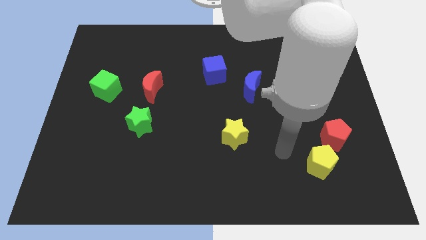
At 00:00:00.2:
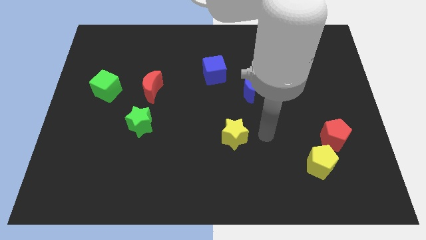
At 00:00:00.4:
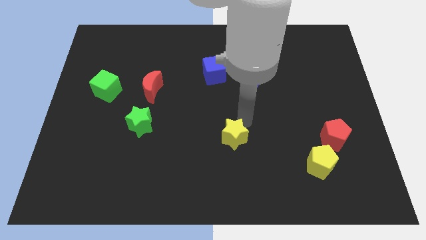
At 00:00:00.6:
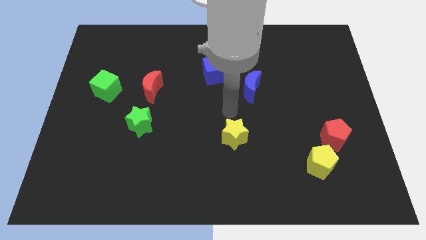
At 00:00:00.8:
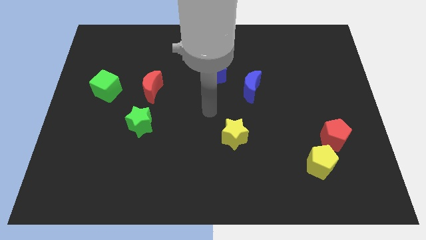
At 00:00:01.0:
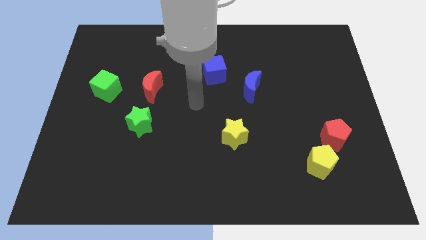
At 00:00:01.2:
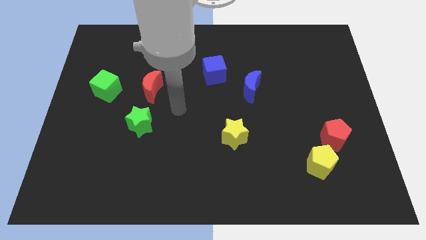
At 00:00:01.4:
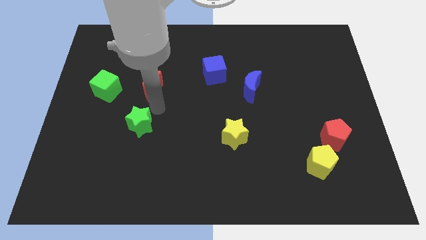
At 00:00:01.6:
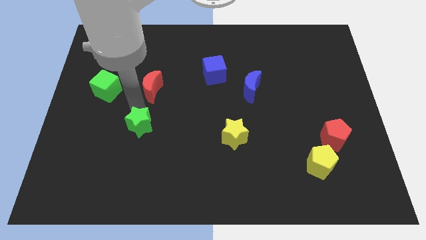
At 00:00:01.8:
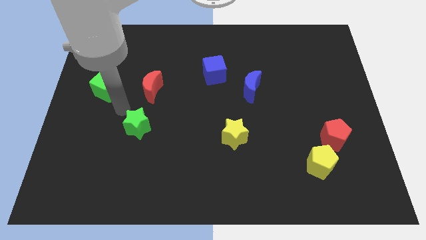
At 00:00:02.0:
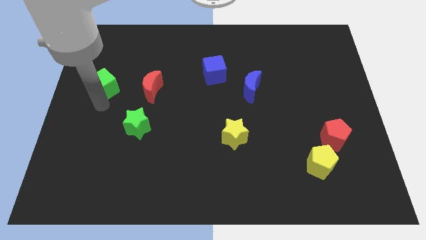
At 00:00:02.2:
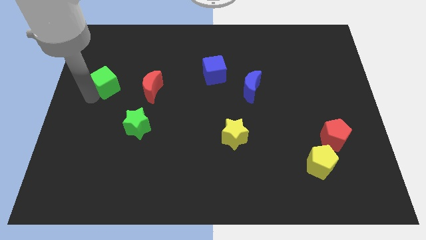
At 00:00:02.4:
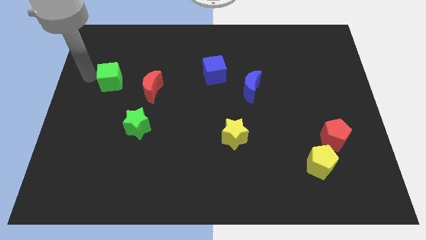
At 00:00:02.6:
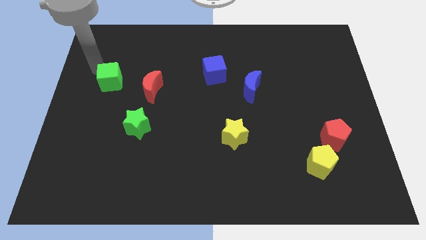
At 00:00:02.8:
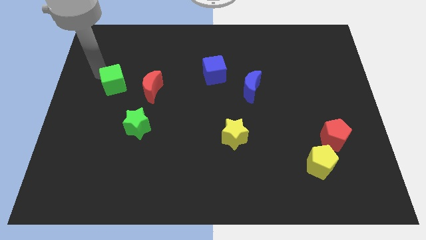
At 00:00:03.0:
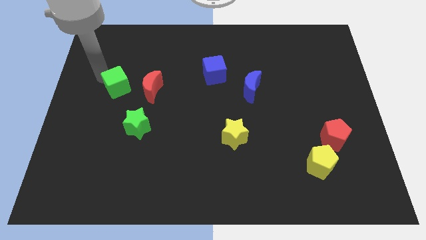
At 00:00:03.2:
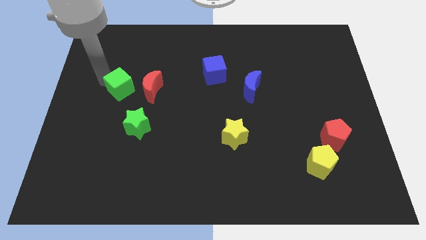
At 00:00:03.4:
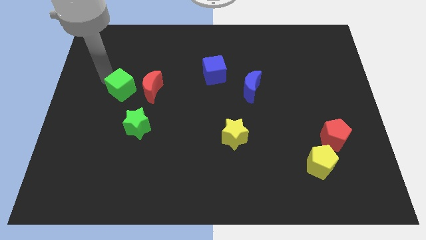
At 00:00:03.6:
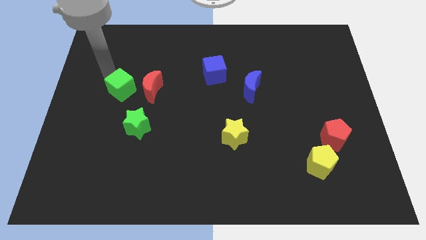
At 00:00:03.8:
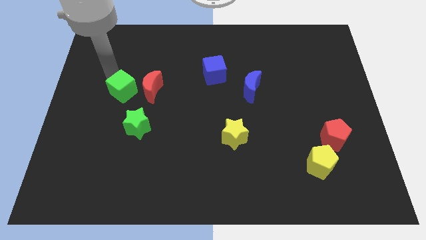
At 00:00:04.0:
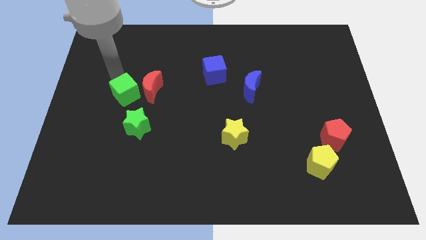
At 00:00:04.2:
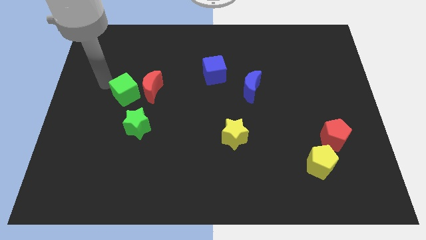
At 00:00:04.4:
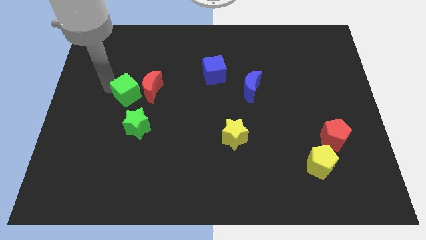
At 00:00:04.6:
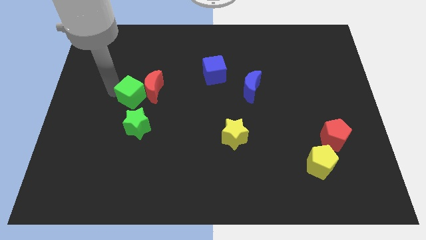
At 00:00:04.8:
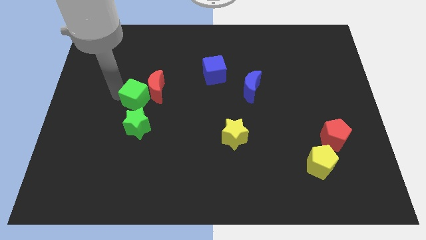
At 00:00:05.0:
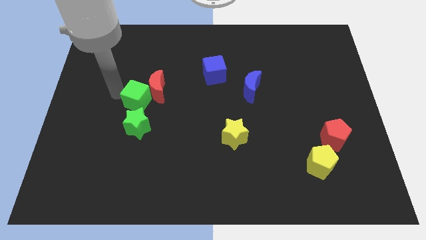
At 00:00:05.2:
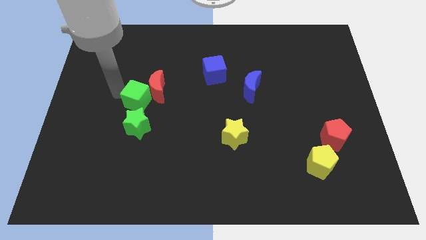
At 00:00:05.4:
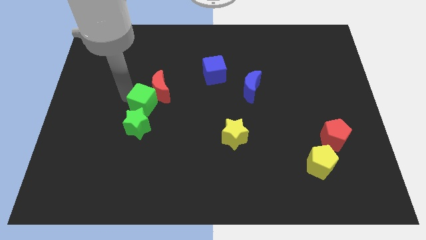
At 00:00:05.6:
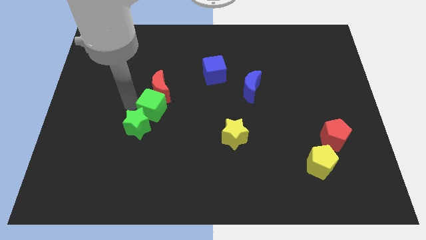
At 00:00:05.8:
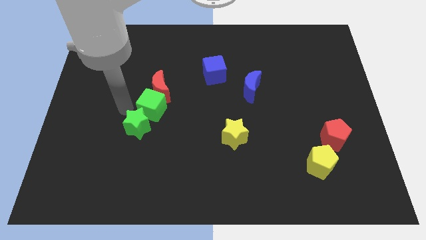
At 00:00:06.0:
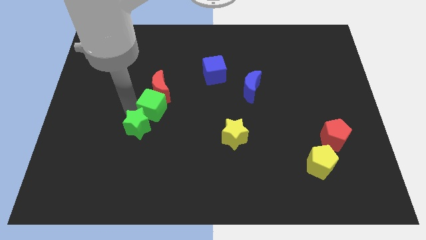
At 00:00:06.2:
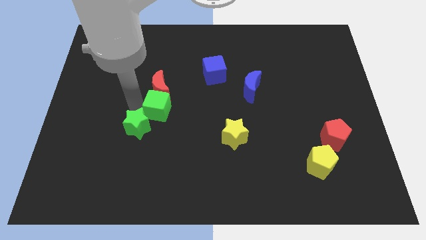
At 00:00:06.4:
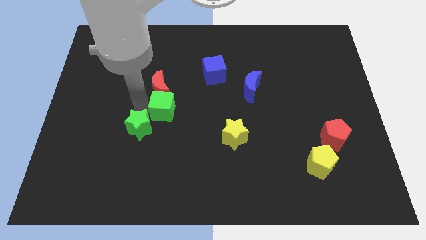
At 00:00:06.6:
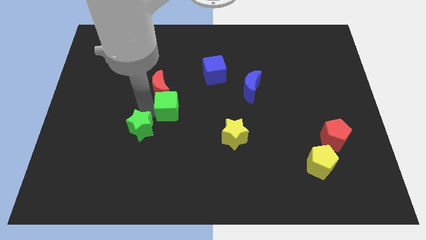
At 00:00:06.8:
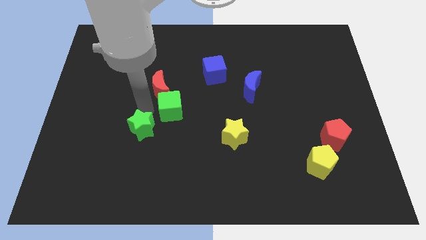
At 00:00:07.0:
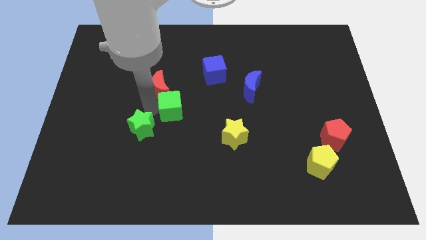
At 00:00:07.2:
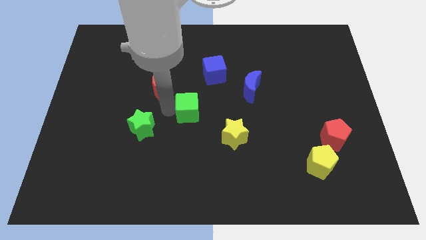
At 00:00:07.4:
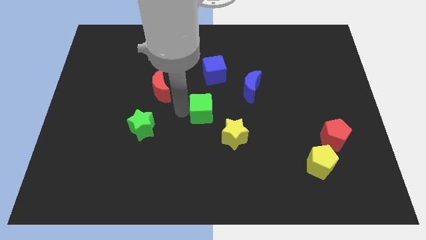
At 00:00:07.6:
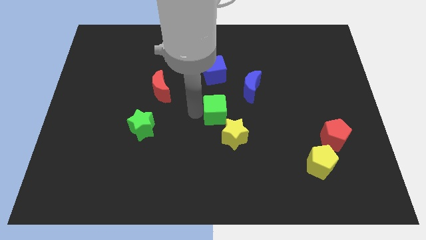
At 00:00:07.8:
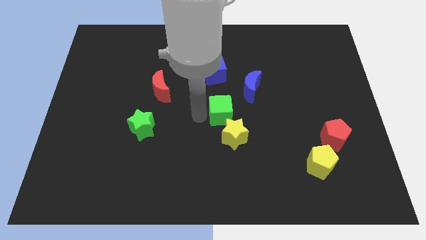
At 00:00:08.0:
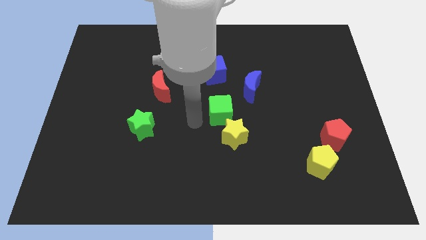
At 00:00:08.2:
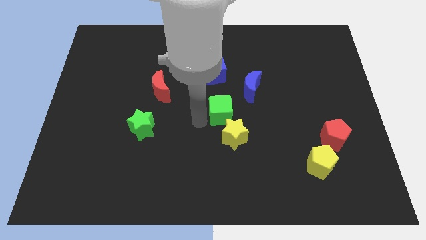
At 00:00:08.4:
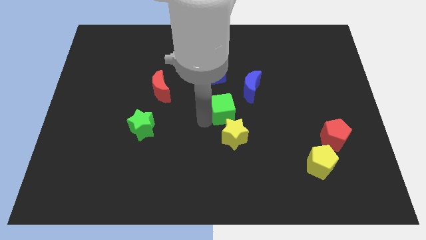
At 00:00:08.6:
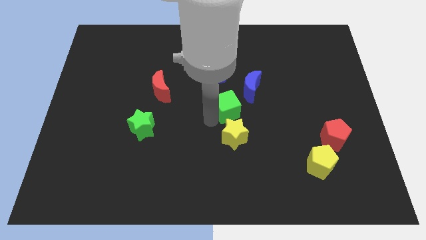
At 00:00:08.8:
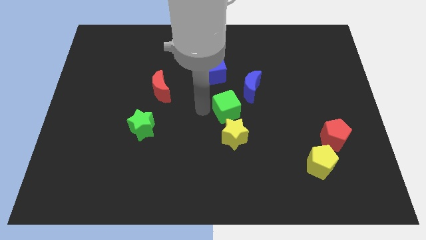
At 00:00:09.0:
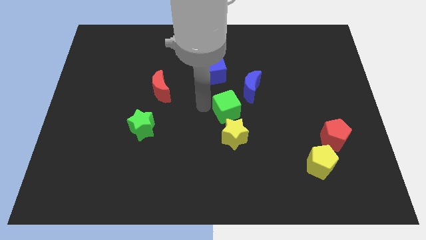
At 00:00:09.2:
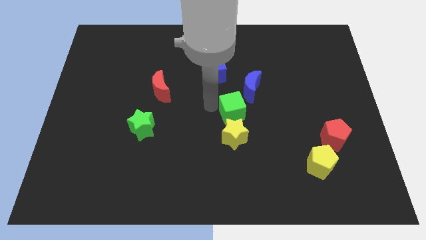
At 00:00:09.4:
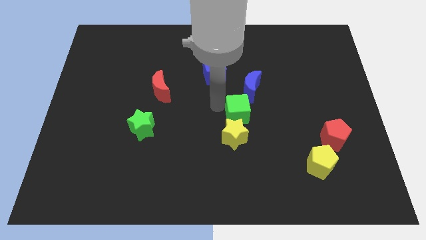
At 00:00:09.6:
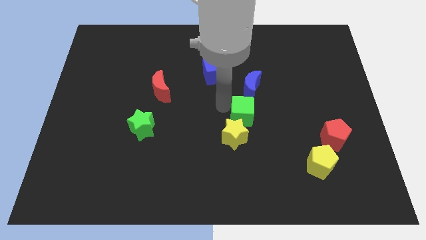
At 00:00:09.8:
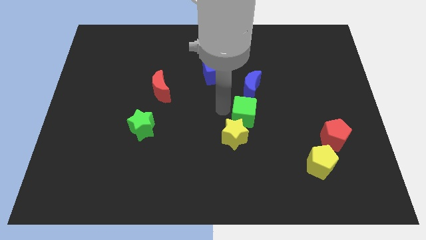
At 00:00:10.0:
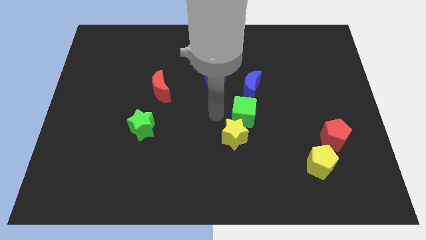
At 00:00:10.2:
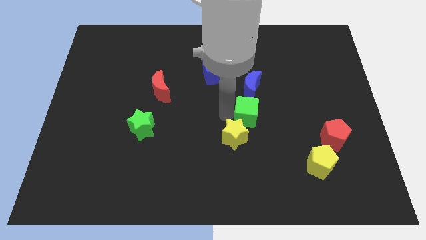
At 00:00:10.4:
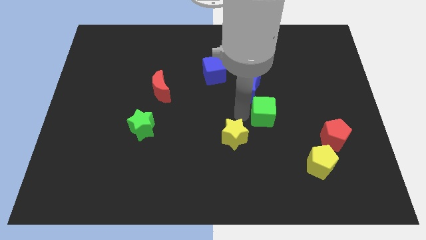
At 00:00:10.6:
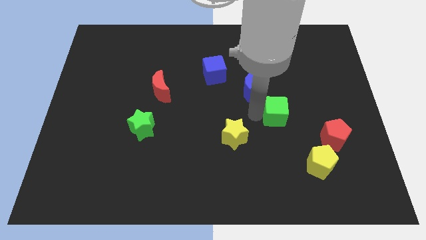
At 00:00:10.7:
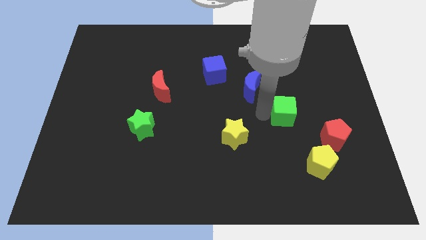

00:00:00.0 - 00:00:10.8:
put the green cube to the top left of the red pentagon

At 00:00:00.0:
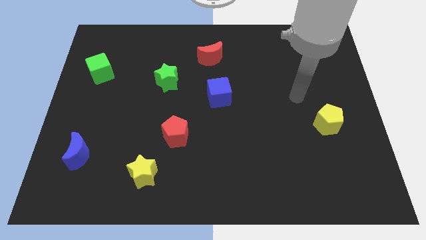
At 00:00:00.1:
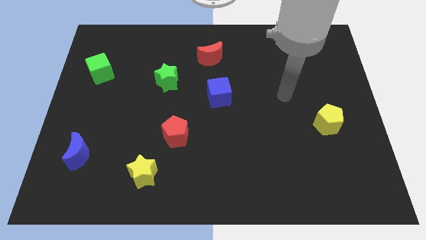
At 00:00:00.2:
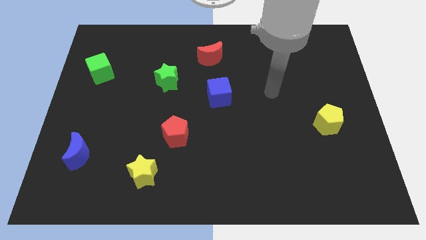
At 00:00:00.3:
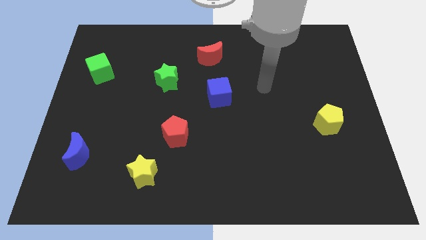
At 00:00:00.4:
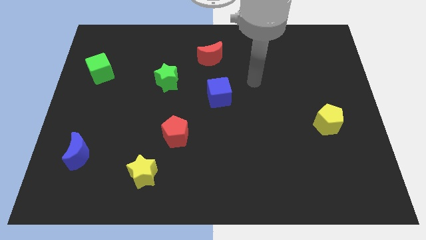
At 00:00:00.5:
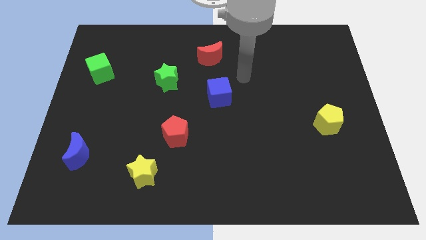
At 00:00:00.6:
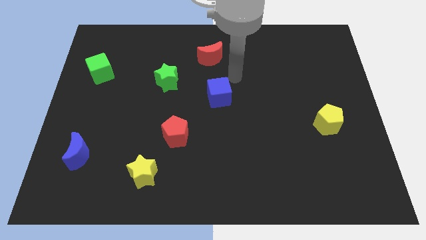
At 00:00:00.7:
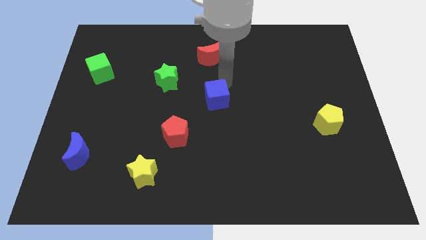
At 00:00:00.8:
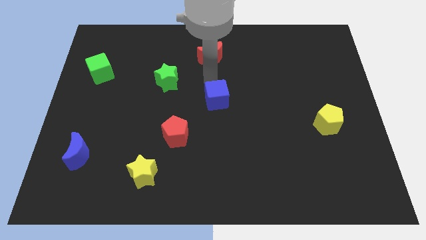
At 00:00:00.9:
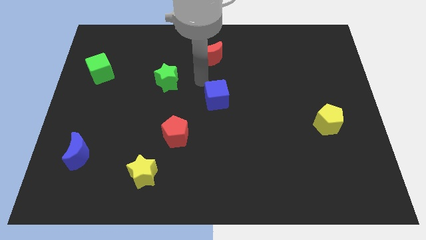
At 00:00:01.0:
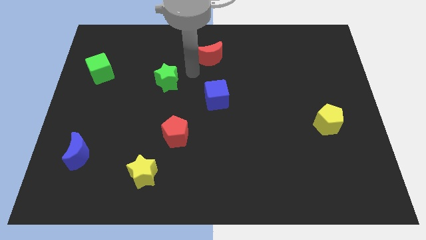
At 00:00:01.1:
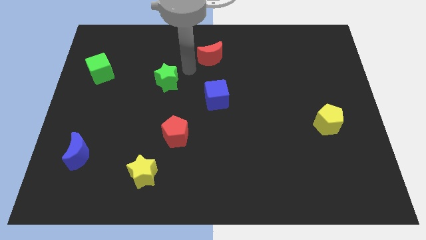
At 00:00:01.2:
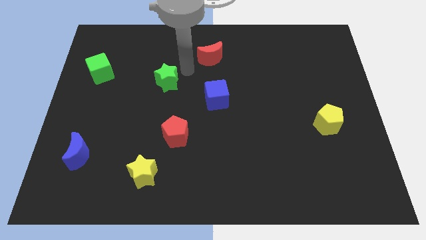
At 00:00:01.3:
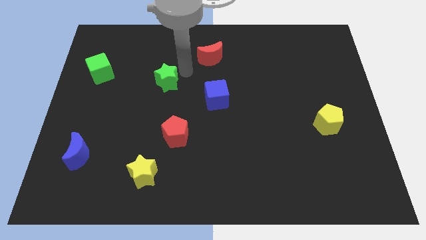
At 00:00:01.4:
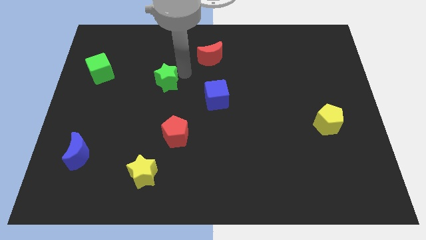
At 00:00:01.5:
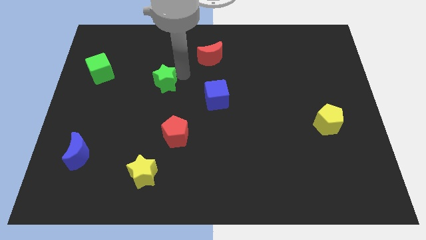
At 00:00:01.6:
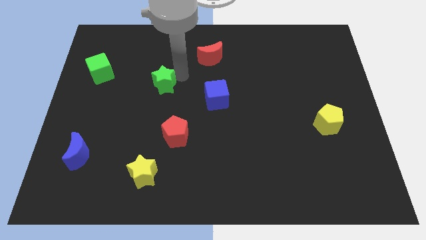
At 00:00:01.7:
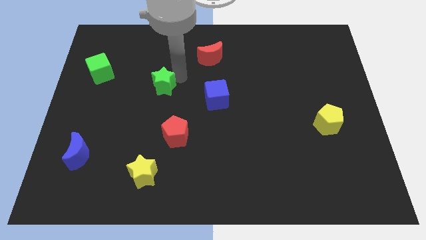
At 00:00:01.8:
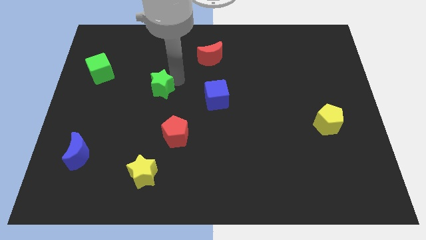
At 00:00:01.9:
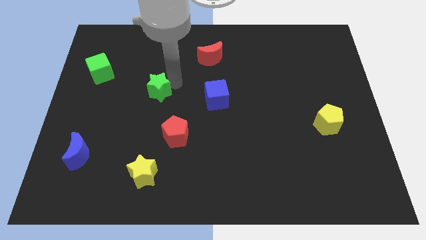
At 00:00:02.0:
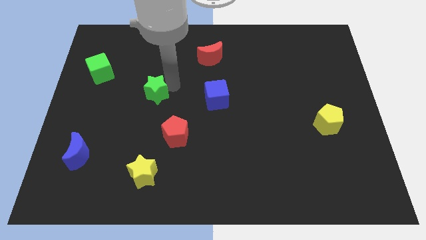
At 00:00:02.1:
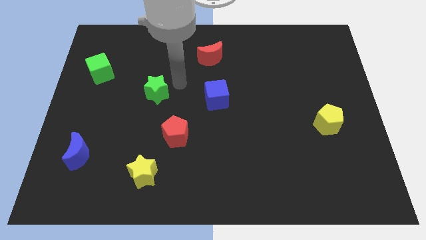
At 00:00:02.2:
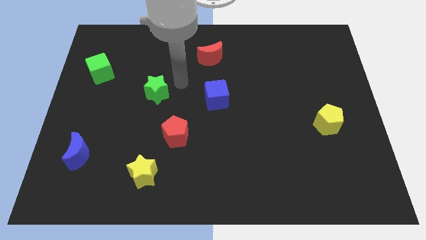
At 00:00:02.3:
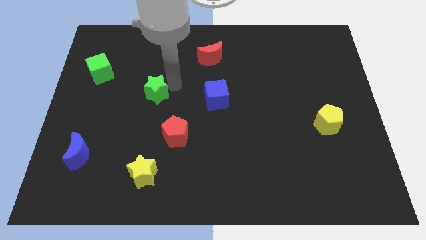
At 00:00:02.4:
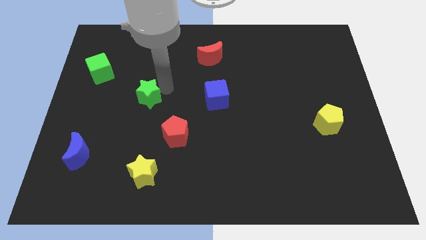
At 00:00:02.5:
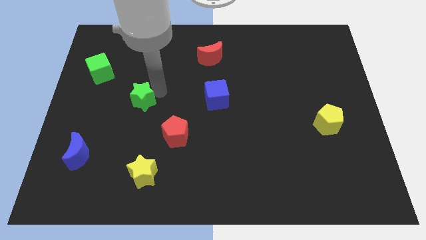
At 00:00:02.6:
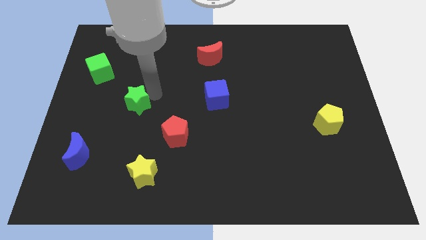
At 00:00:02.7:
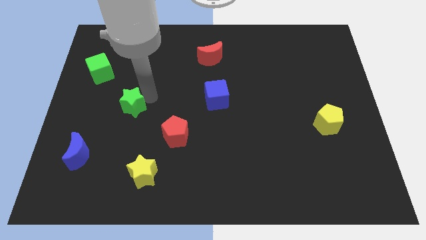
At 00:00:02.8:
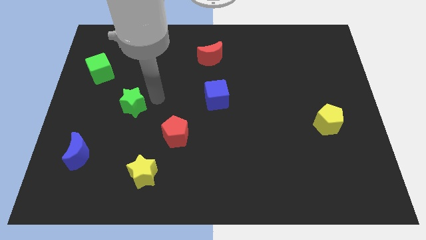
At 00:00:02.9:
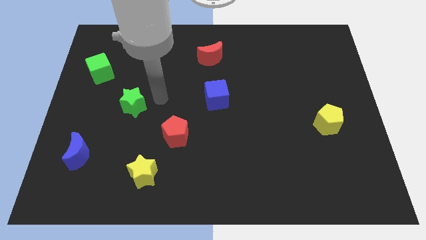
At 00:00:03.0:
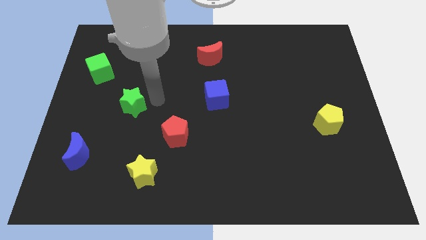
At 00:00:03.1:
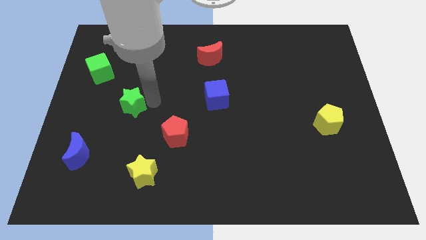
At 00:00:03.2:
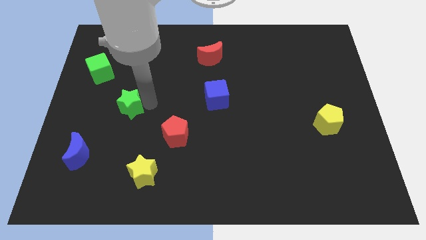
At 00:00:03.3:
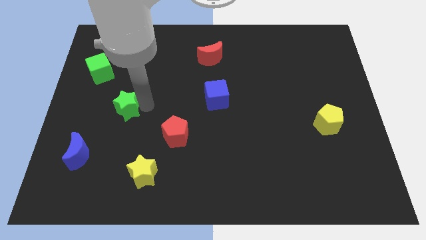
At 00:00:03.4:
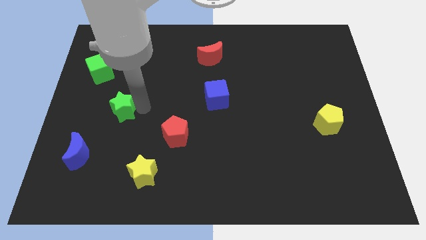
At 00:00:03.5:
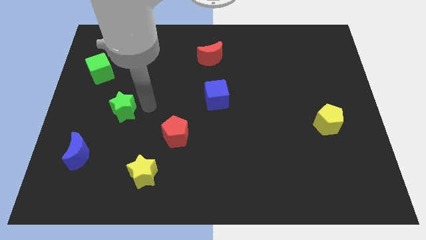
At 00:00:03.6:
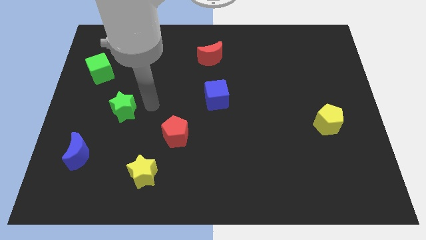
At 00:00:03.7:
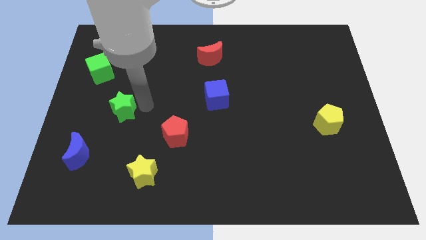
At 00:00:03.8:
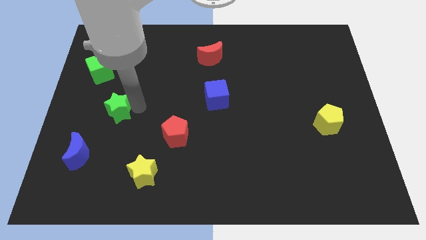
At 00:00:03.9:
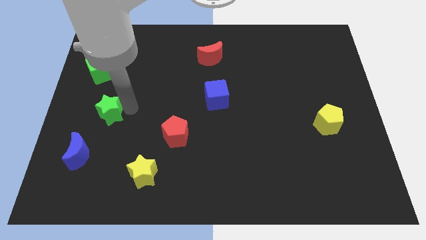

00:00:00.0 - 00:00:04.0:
slide the green star to the top side of the blue moon
